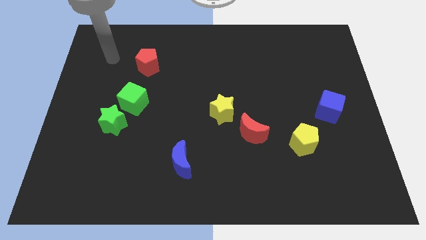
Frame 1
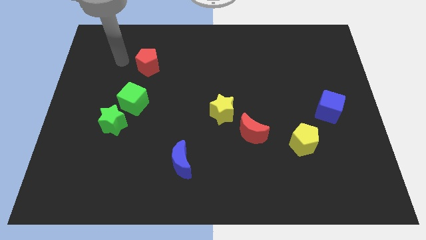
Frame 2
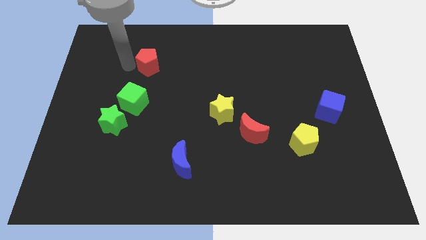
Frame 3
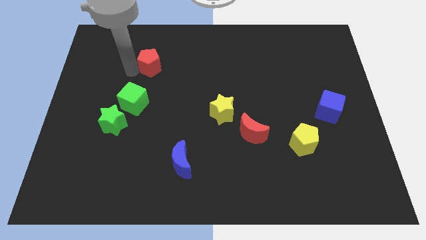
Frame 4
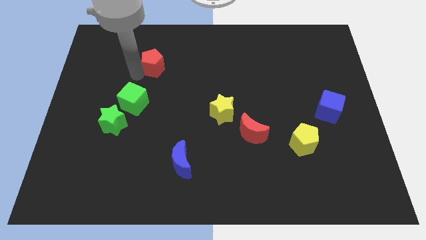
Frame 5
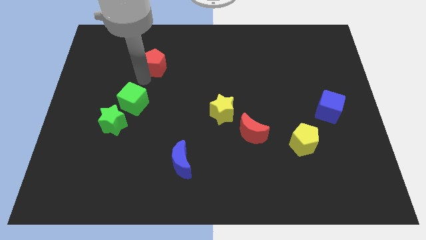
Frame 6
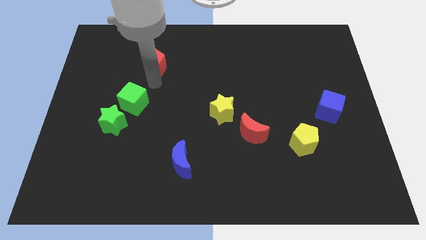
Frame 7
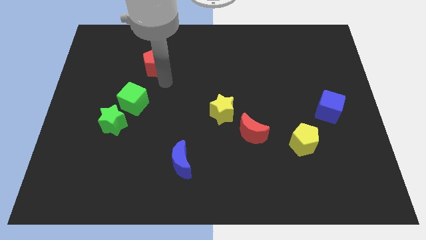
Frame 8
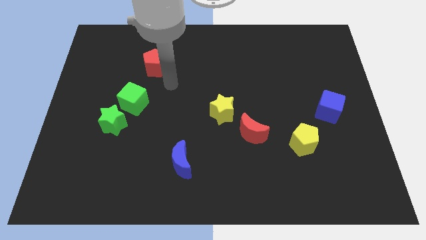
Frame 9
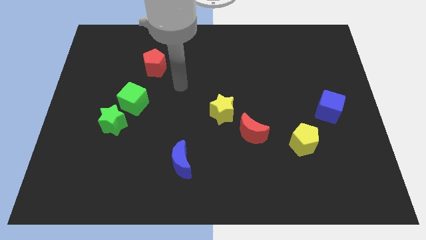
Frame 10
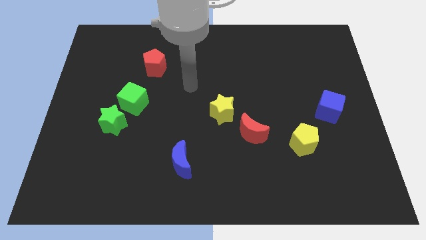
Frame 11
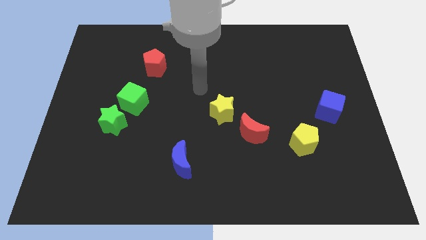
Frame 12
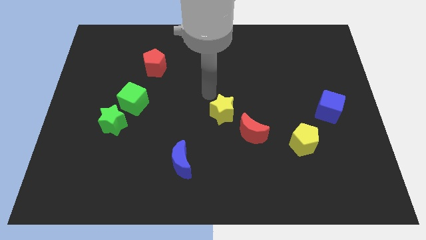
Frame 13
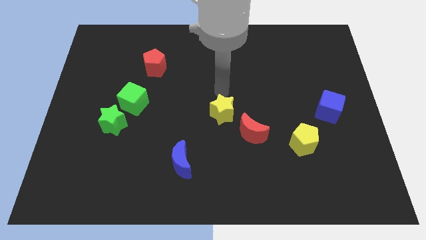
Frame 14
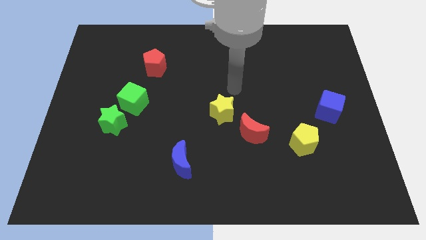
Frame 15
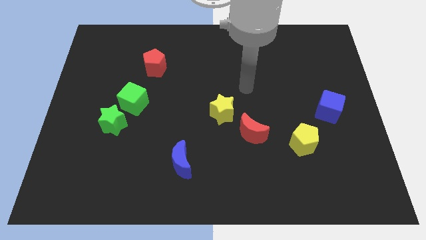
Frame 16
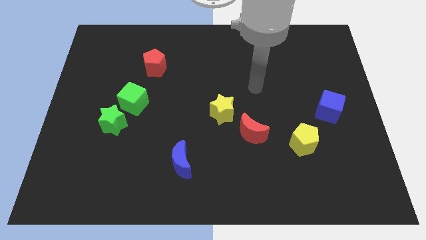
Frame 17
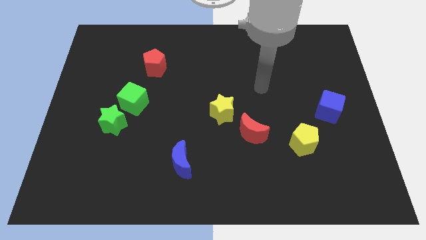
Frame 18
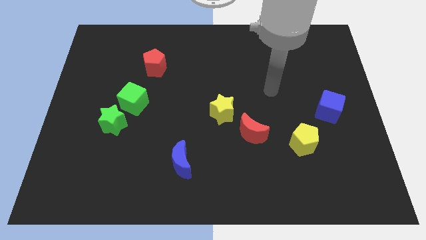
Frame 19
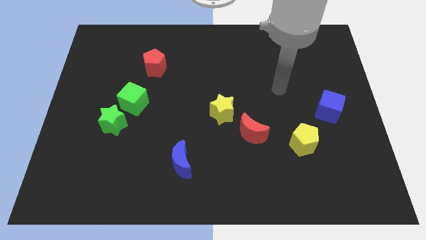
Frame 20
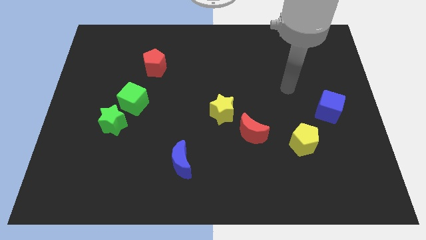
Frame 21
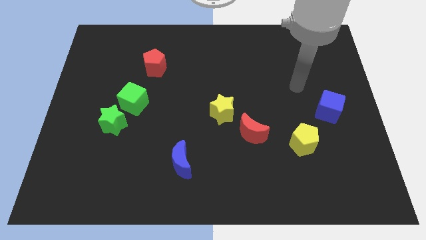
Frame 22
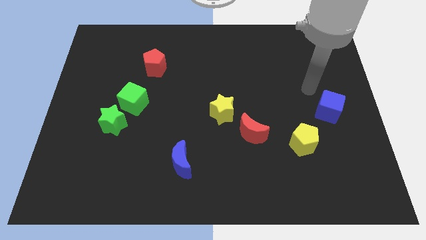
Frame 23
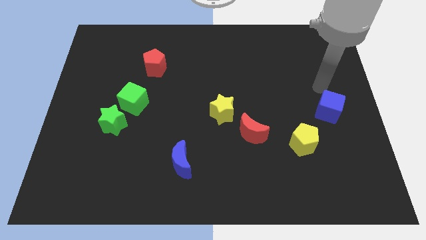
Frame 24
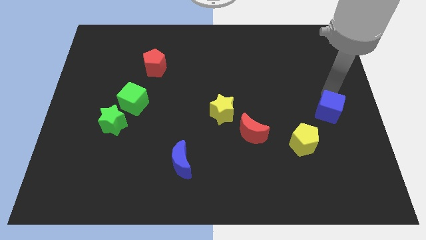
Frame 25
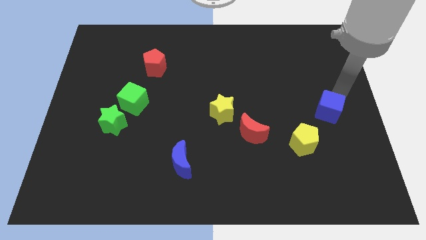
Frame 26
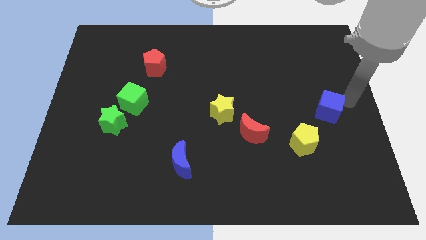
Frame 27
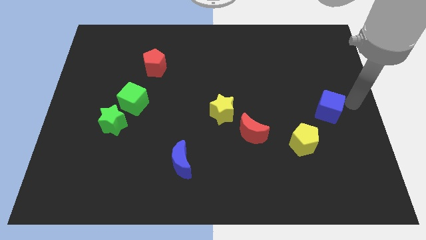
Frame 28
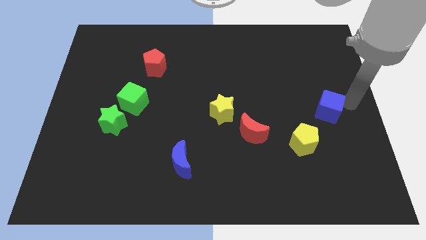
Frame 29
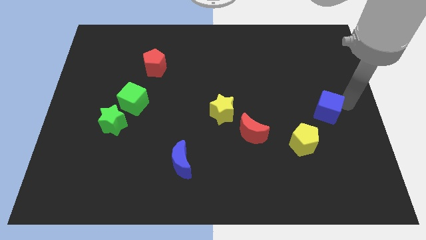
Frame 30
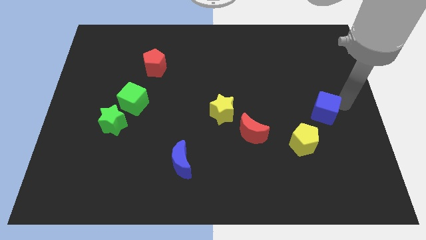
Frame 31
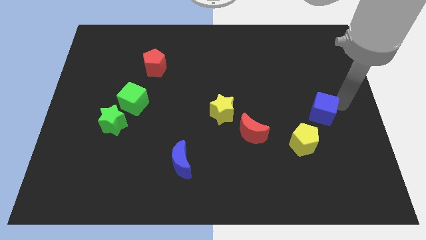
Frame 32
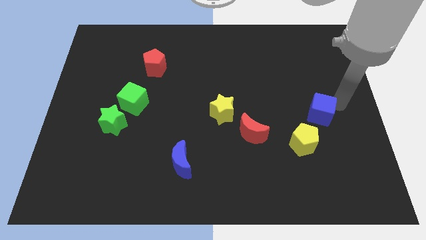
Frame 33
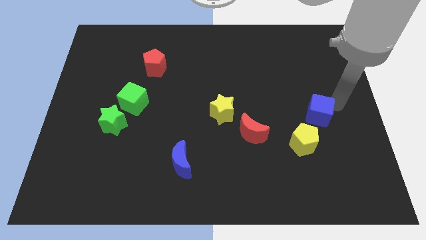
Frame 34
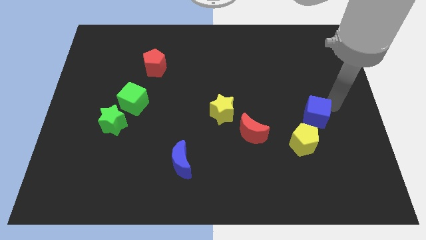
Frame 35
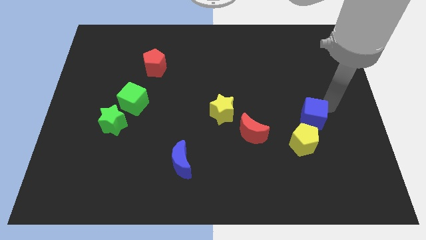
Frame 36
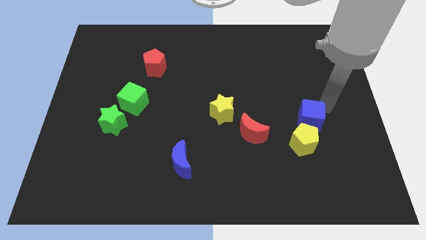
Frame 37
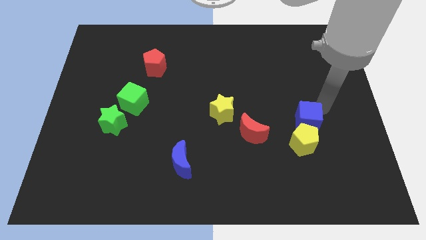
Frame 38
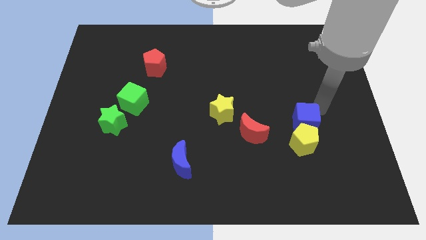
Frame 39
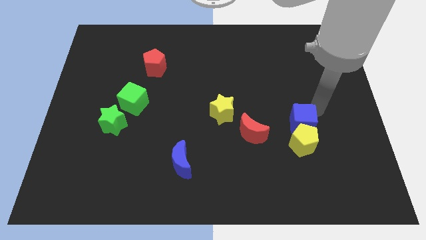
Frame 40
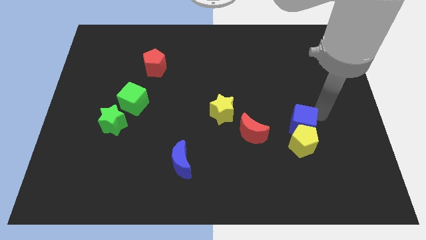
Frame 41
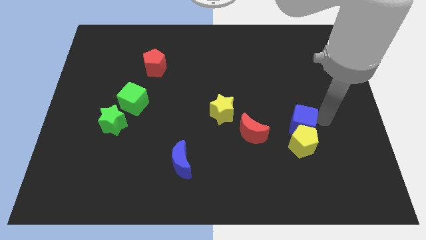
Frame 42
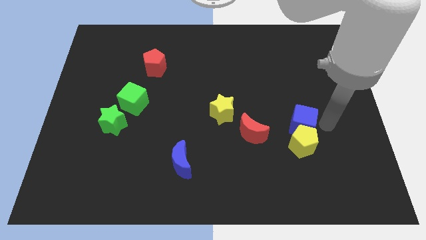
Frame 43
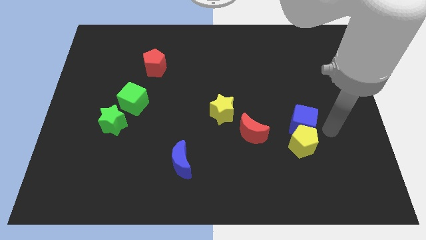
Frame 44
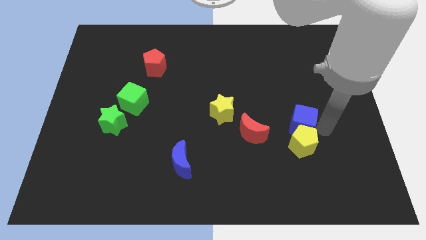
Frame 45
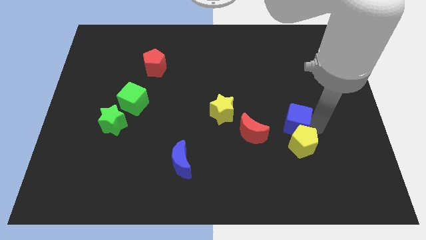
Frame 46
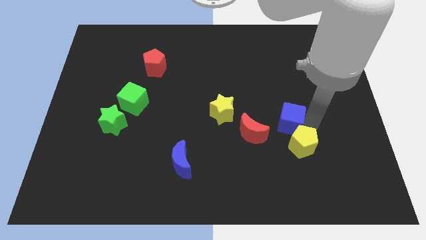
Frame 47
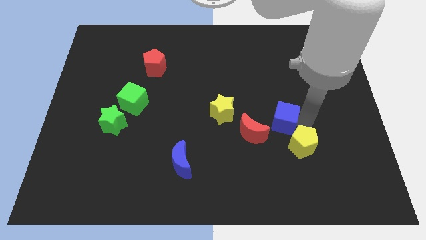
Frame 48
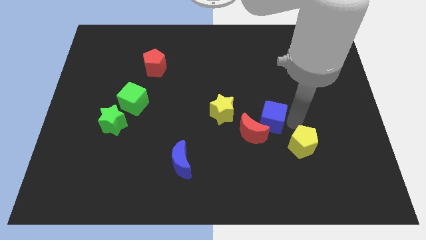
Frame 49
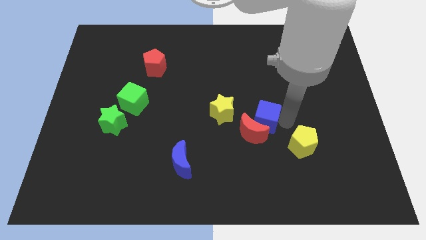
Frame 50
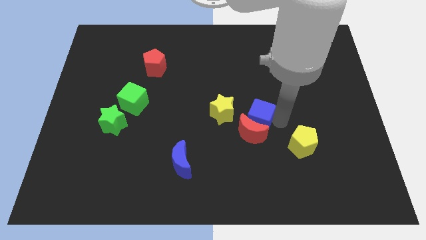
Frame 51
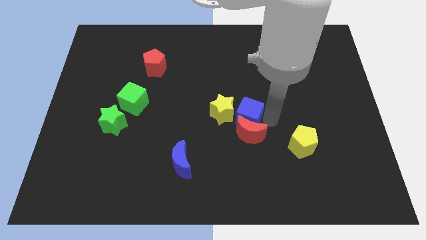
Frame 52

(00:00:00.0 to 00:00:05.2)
slide the blue cube close to the yellow star

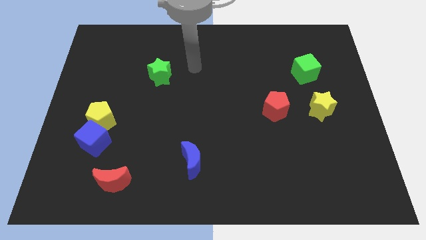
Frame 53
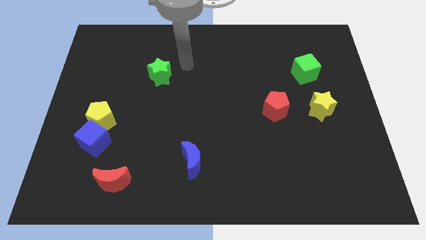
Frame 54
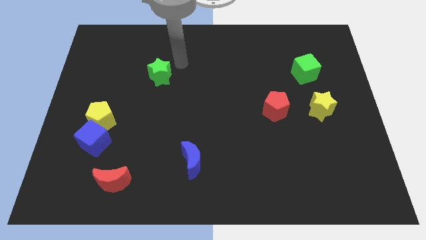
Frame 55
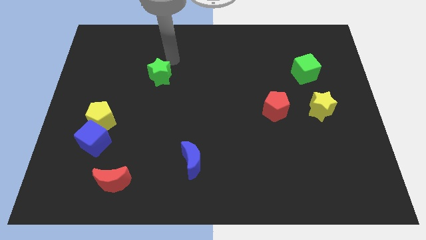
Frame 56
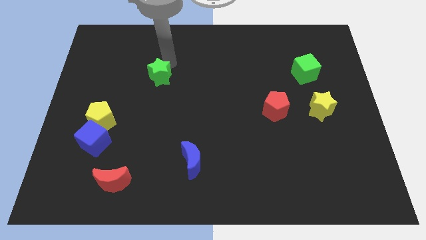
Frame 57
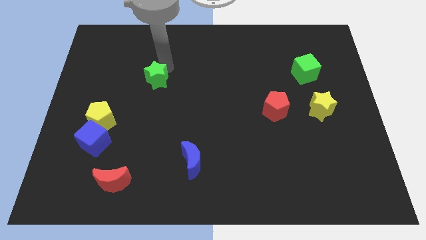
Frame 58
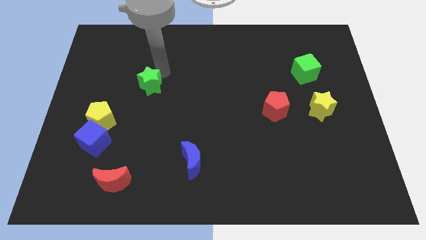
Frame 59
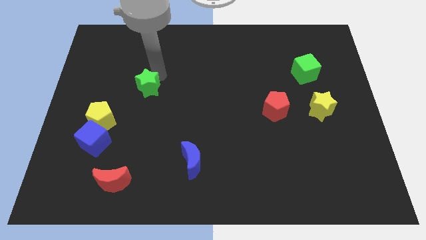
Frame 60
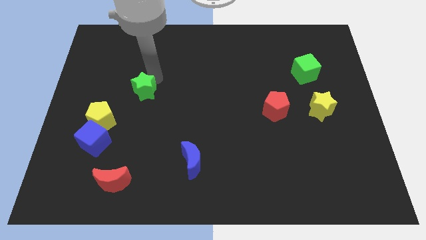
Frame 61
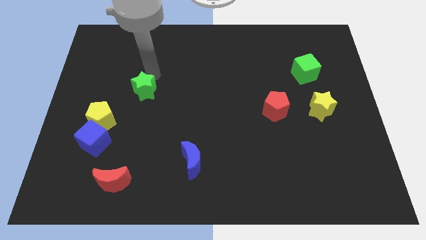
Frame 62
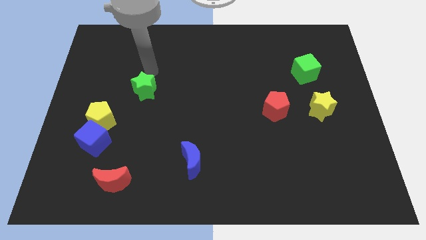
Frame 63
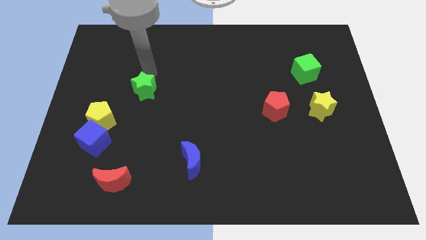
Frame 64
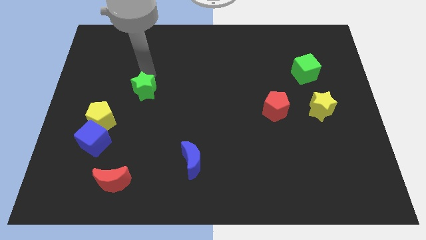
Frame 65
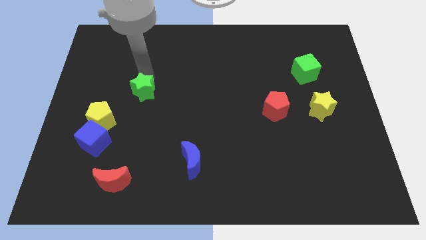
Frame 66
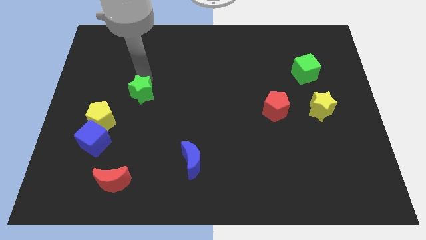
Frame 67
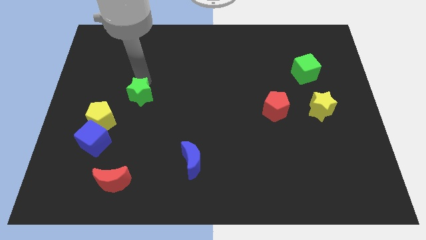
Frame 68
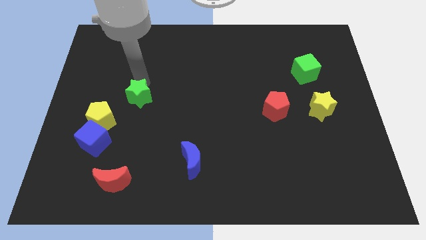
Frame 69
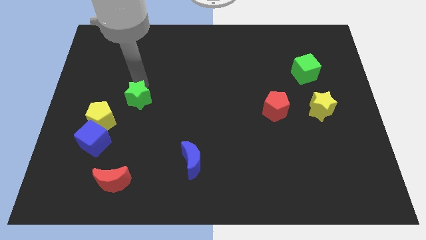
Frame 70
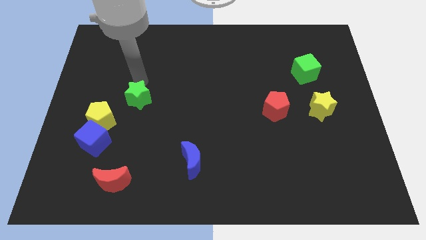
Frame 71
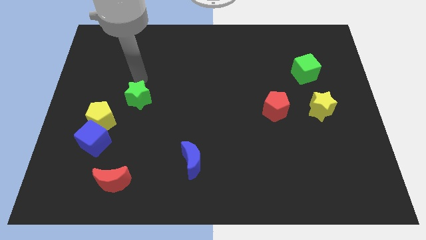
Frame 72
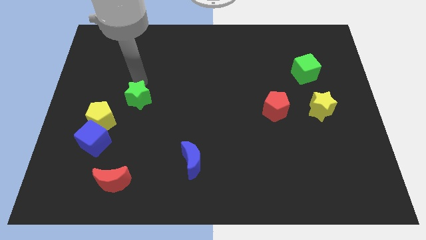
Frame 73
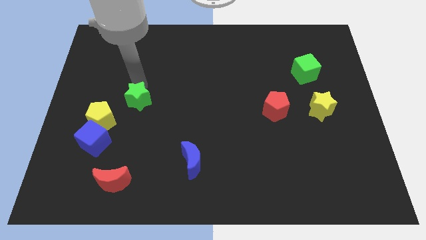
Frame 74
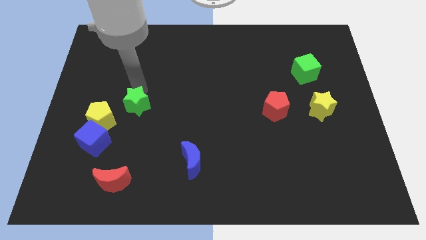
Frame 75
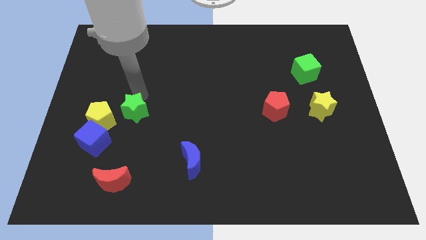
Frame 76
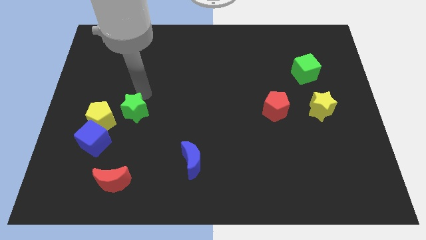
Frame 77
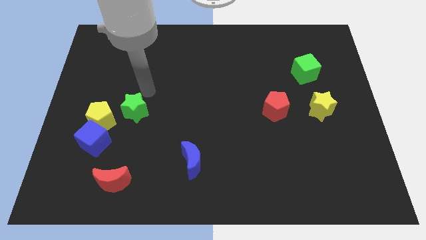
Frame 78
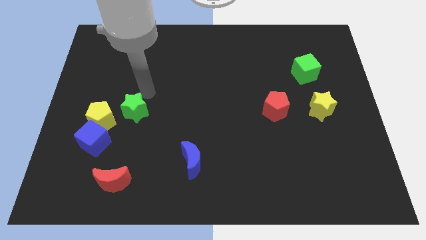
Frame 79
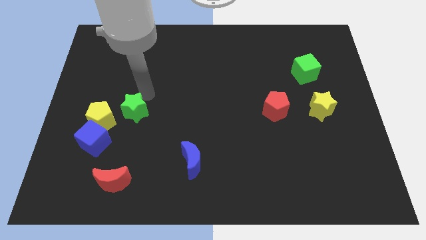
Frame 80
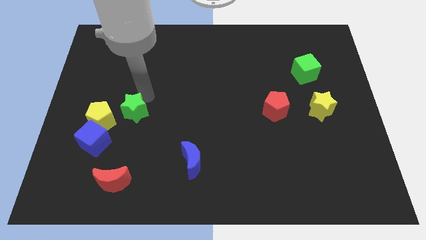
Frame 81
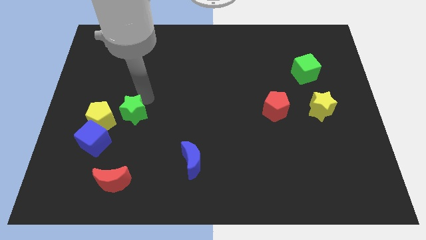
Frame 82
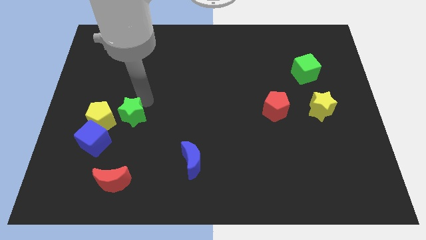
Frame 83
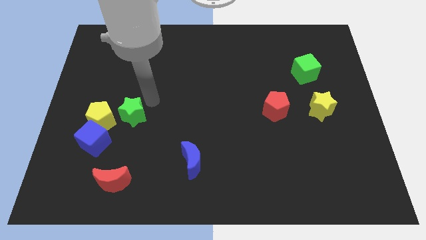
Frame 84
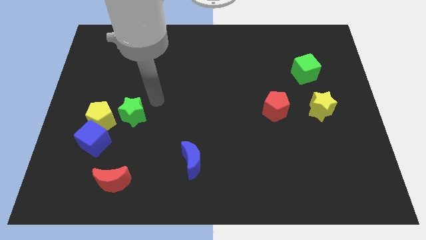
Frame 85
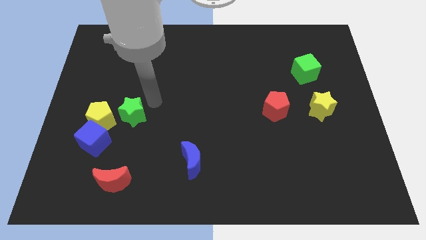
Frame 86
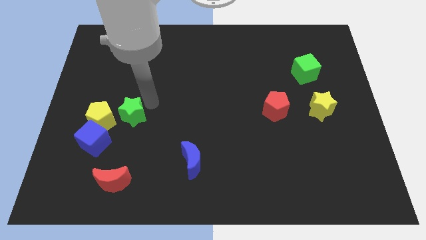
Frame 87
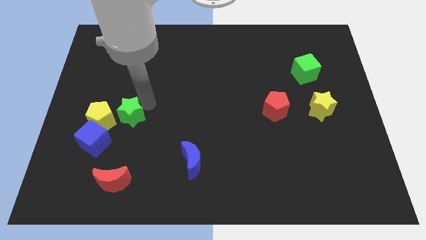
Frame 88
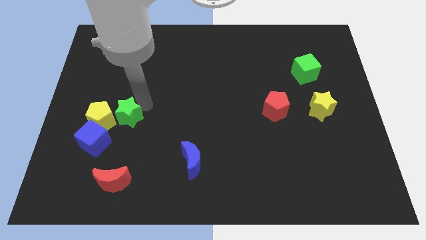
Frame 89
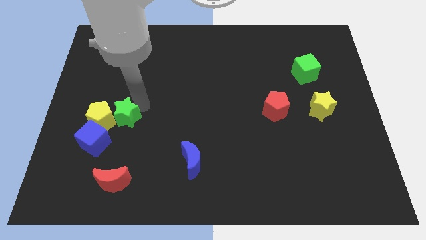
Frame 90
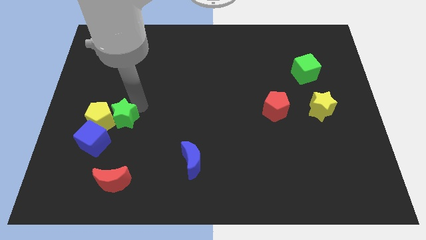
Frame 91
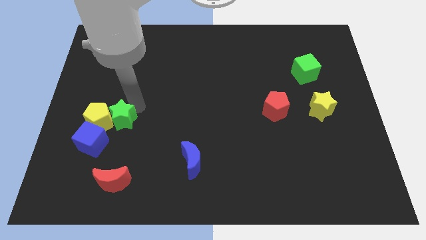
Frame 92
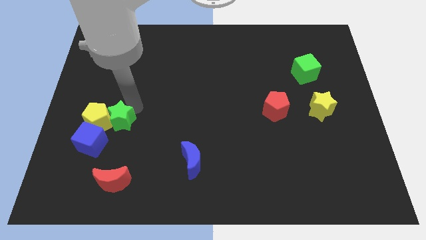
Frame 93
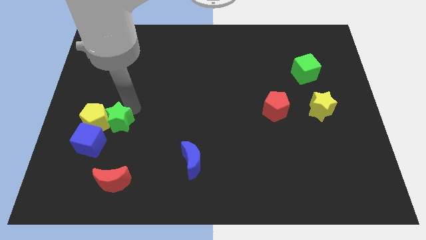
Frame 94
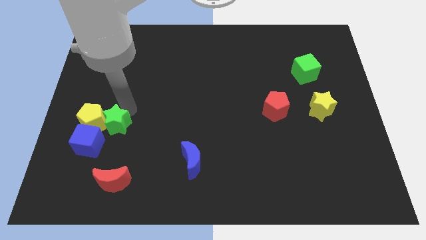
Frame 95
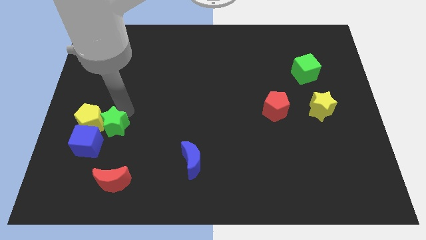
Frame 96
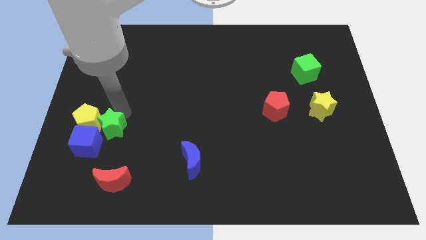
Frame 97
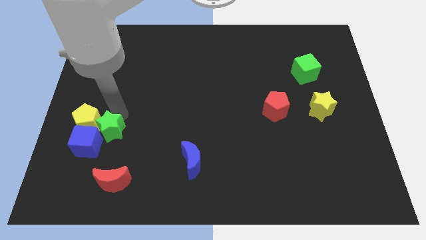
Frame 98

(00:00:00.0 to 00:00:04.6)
put the green star towards the blue cube
